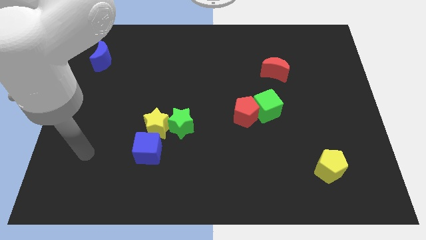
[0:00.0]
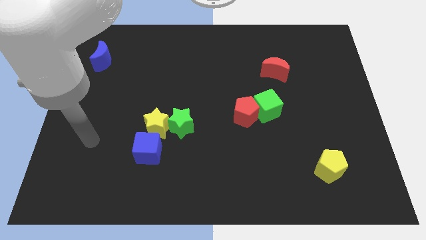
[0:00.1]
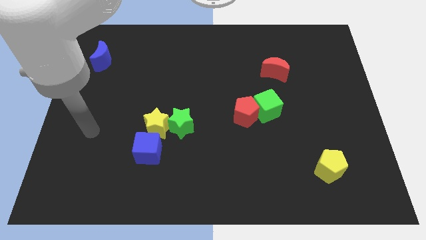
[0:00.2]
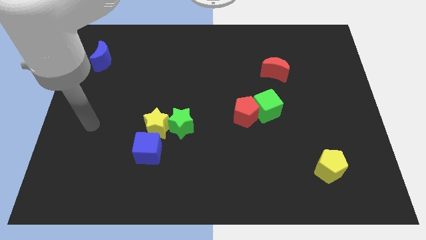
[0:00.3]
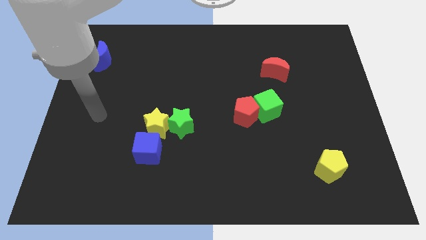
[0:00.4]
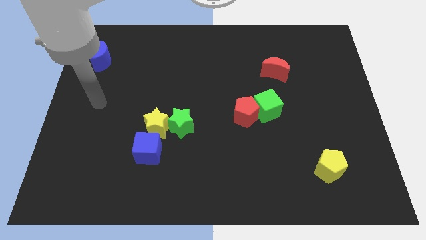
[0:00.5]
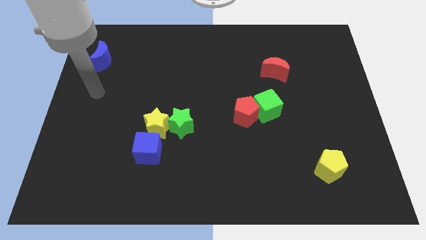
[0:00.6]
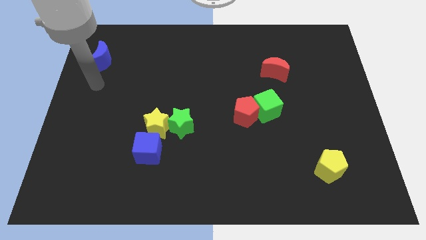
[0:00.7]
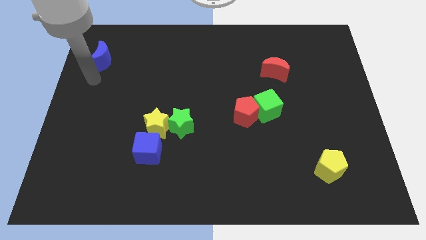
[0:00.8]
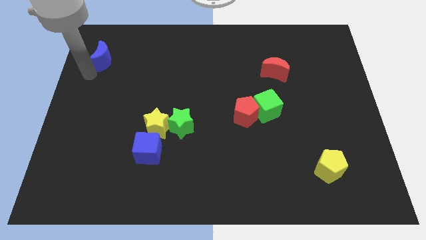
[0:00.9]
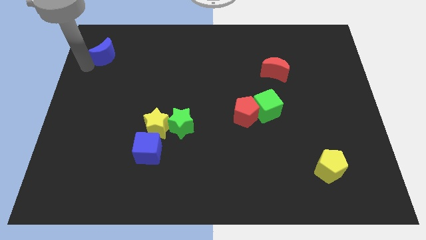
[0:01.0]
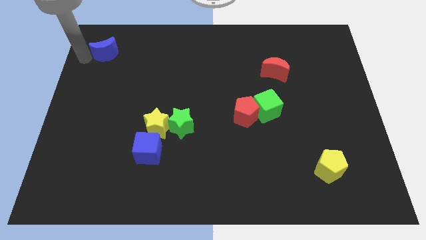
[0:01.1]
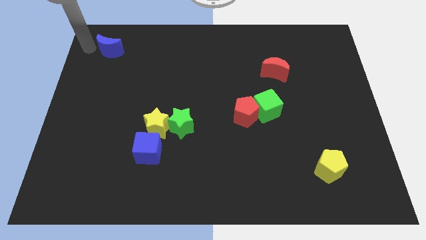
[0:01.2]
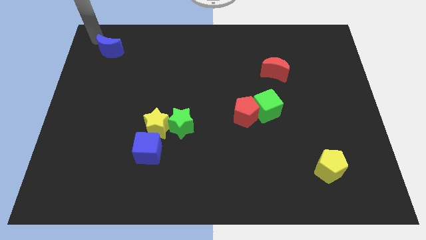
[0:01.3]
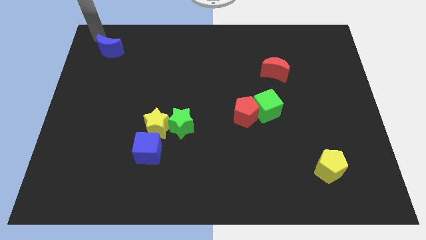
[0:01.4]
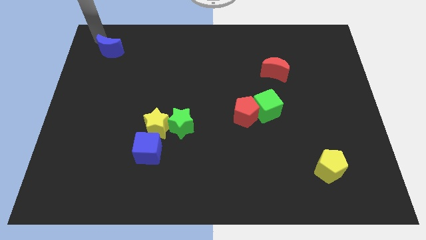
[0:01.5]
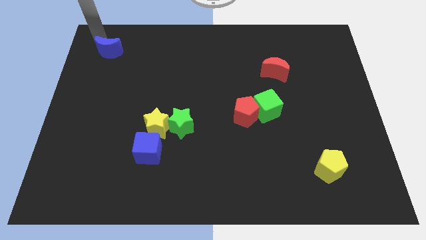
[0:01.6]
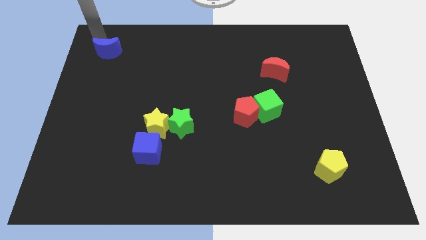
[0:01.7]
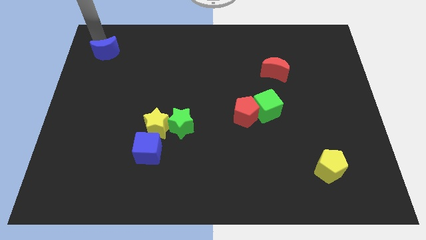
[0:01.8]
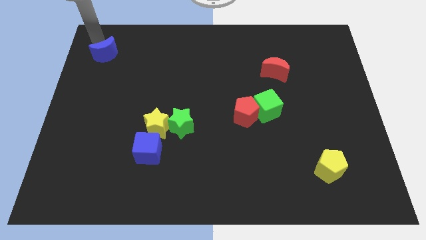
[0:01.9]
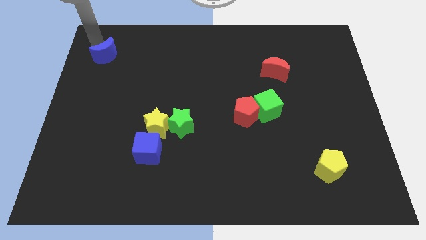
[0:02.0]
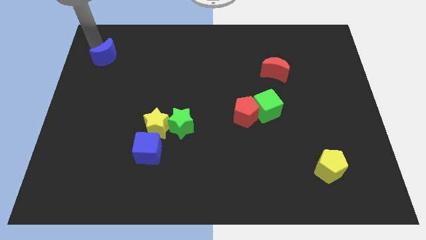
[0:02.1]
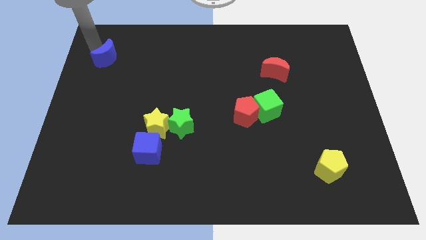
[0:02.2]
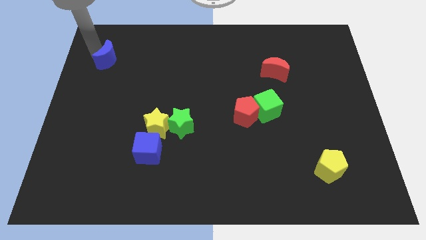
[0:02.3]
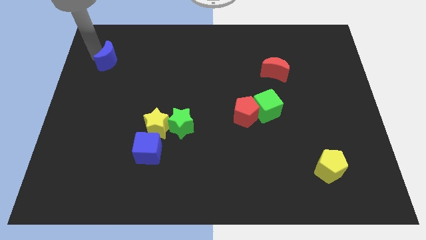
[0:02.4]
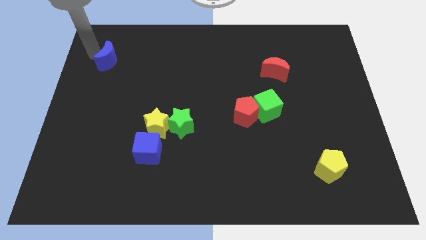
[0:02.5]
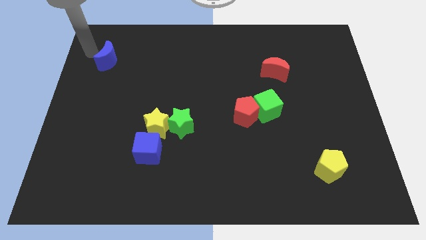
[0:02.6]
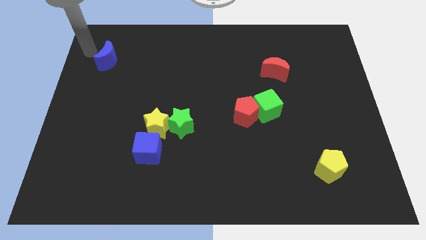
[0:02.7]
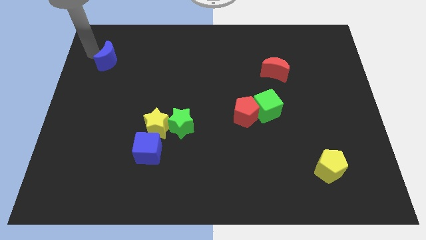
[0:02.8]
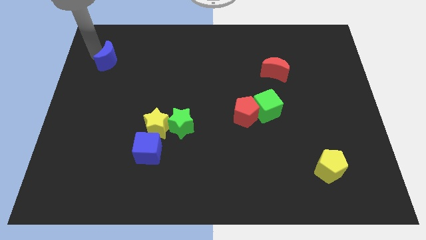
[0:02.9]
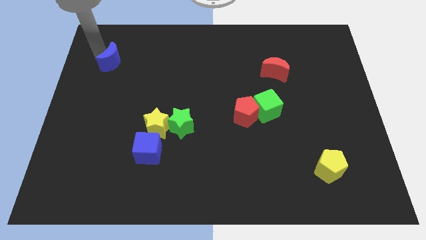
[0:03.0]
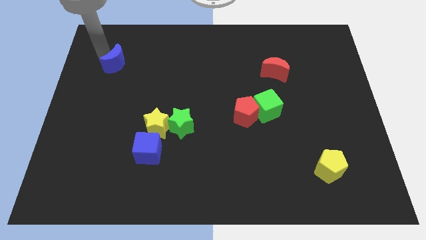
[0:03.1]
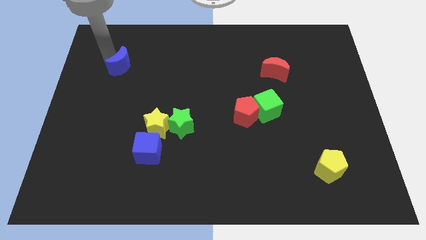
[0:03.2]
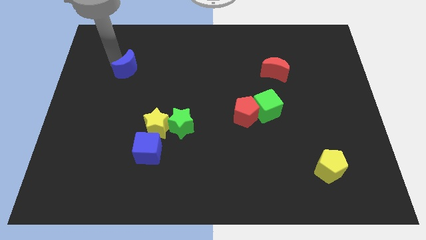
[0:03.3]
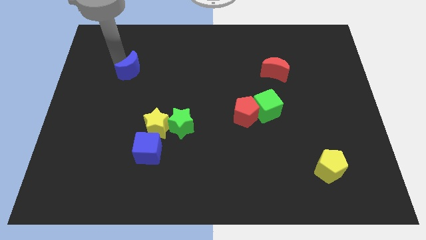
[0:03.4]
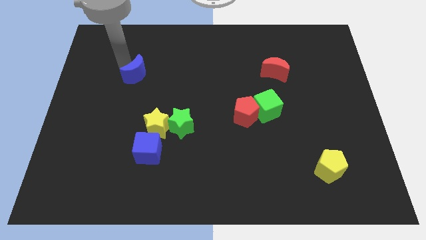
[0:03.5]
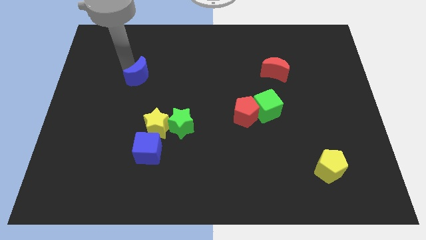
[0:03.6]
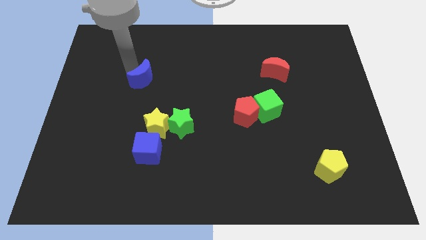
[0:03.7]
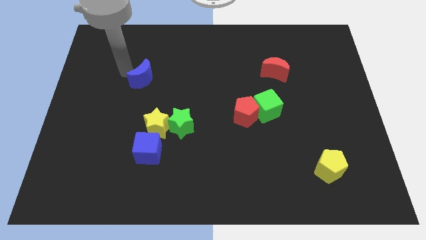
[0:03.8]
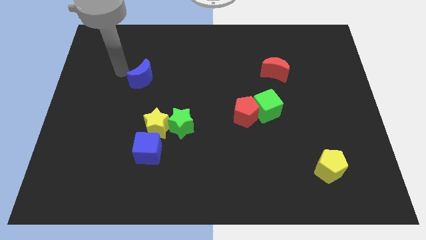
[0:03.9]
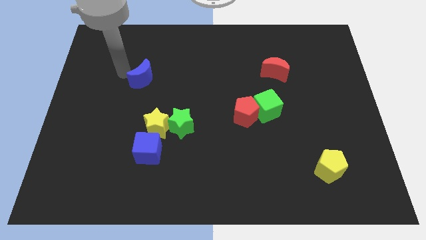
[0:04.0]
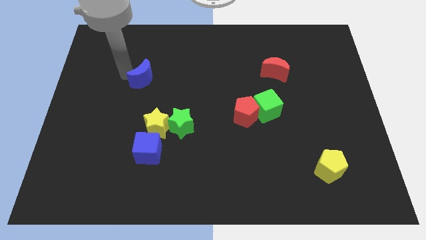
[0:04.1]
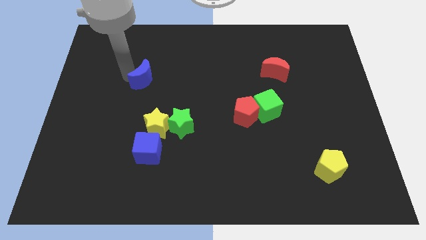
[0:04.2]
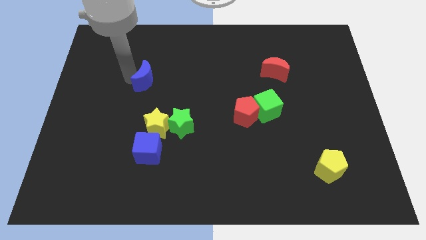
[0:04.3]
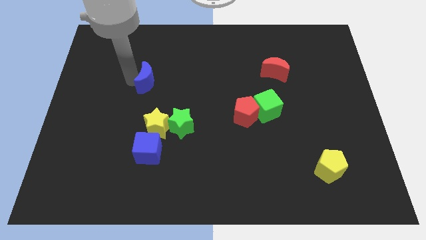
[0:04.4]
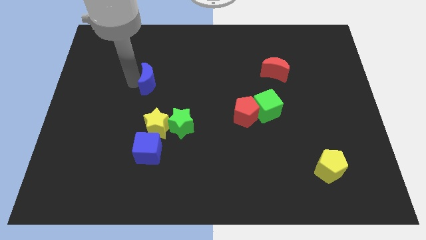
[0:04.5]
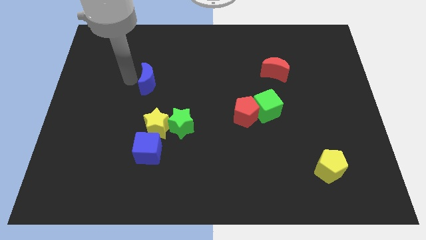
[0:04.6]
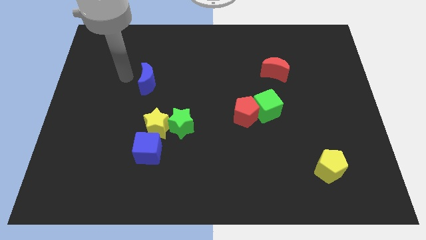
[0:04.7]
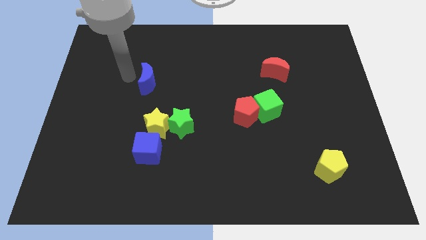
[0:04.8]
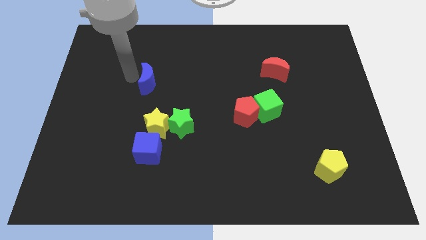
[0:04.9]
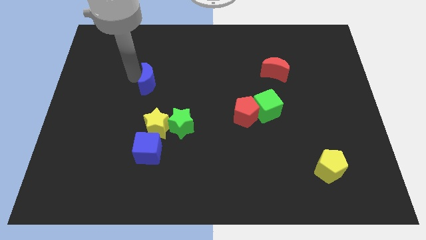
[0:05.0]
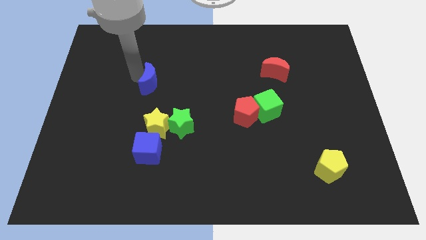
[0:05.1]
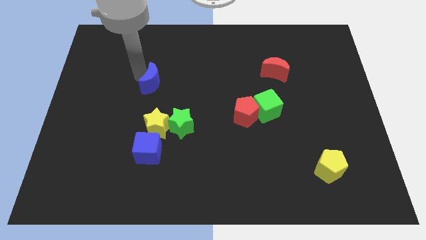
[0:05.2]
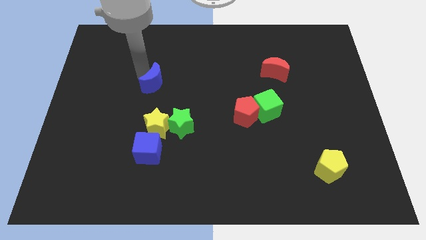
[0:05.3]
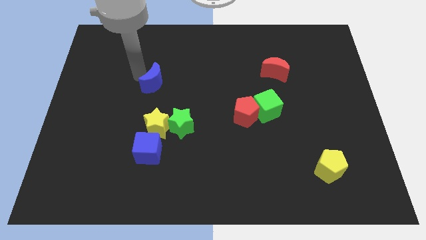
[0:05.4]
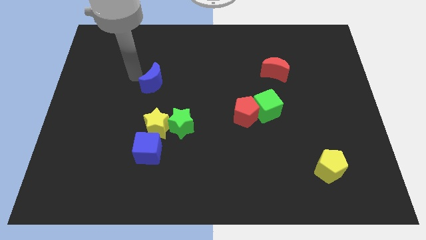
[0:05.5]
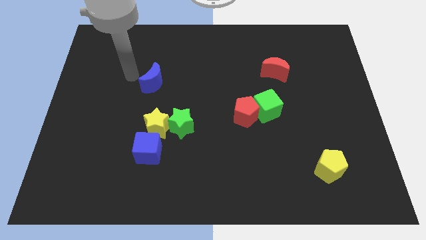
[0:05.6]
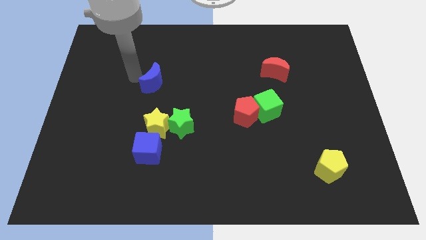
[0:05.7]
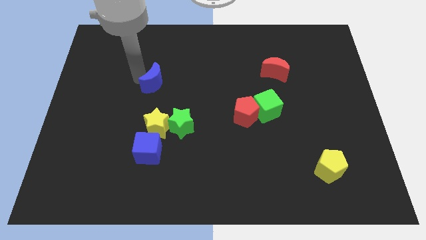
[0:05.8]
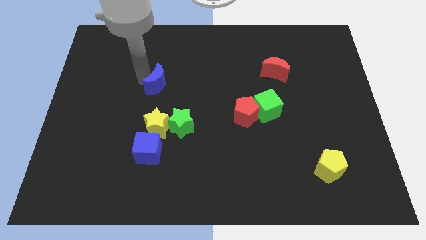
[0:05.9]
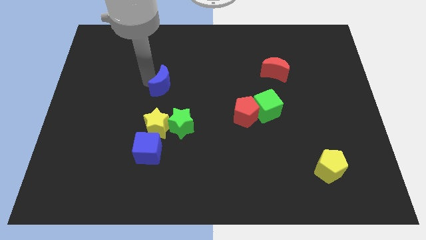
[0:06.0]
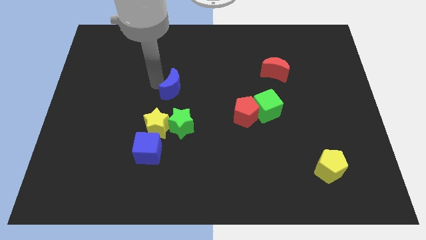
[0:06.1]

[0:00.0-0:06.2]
push the blue moon to the middle
